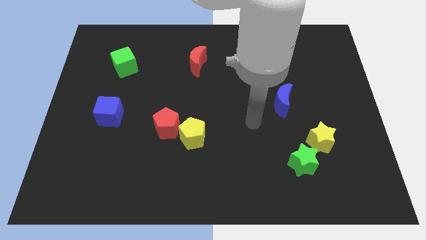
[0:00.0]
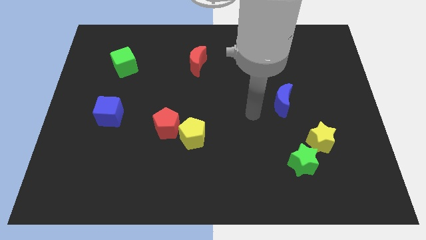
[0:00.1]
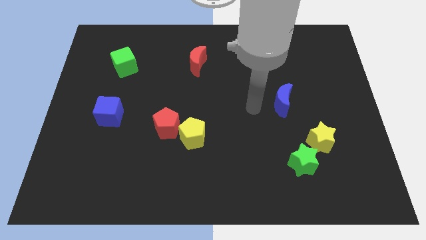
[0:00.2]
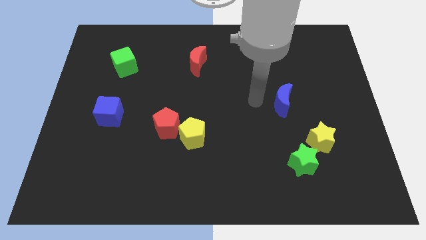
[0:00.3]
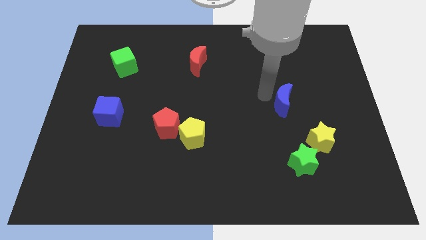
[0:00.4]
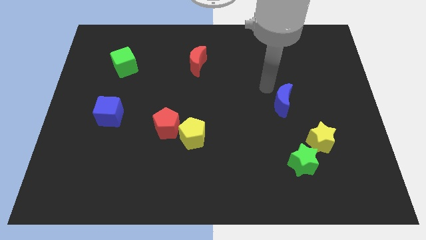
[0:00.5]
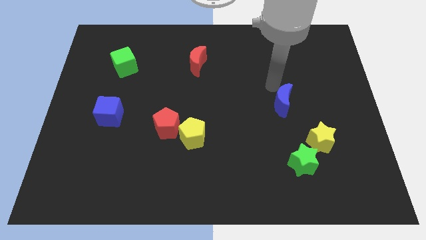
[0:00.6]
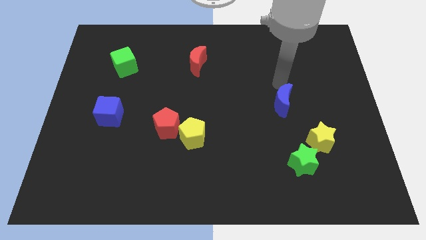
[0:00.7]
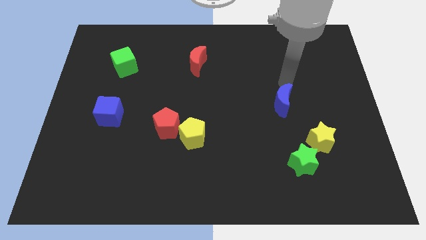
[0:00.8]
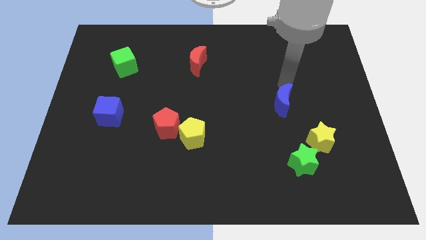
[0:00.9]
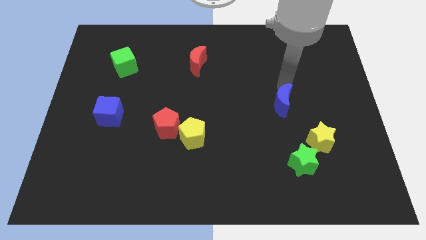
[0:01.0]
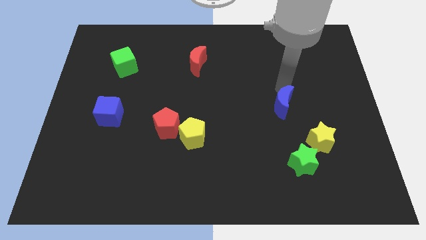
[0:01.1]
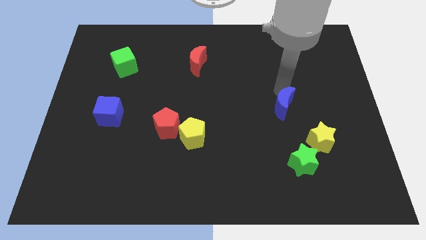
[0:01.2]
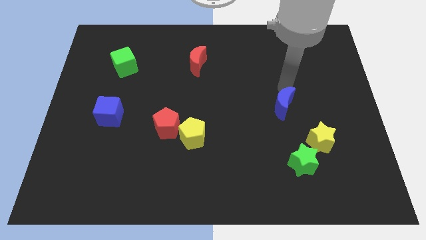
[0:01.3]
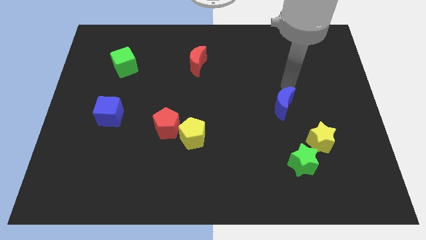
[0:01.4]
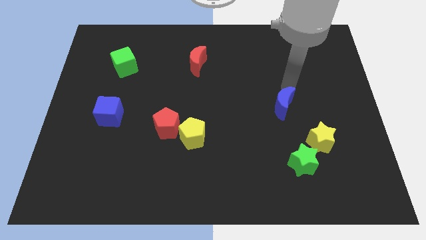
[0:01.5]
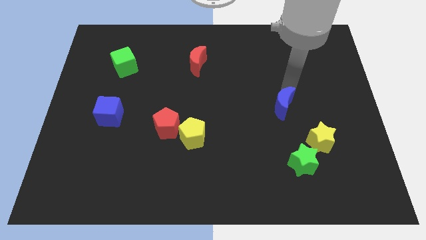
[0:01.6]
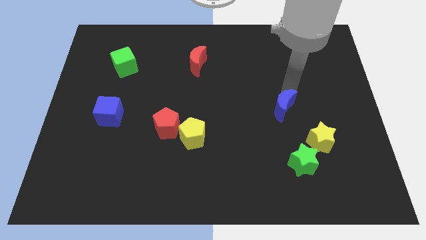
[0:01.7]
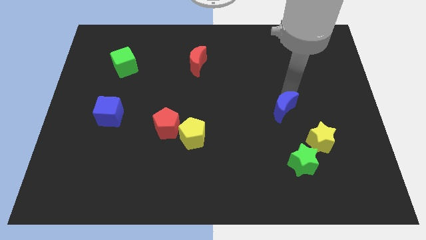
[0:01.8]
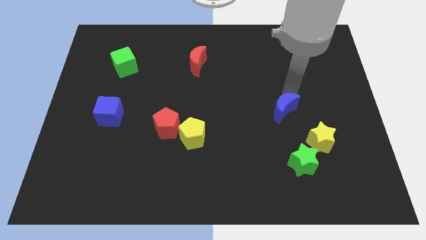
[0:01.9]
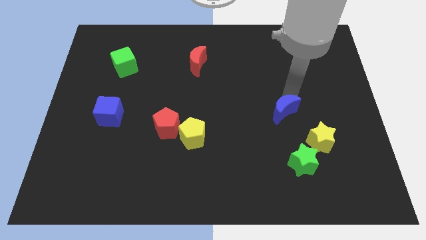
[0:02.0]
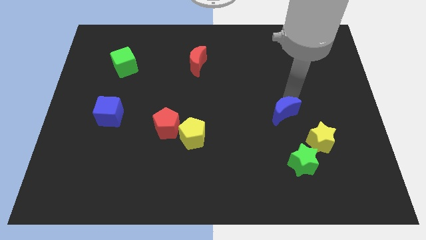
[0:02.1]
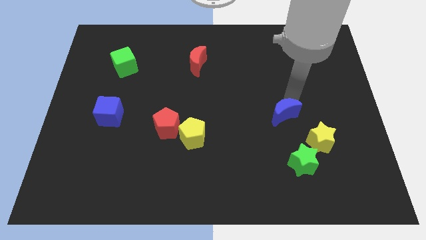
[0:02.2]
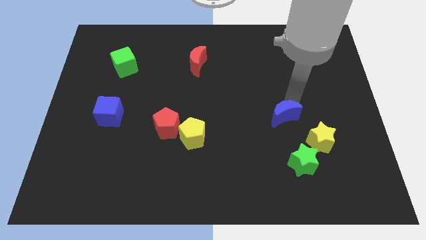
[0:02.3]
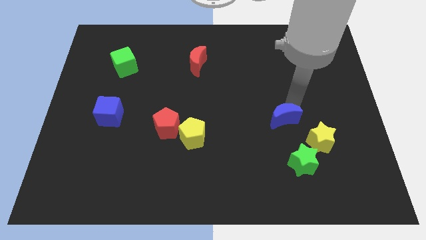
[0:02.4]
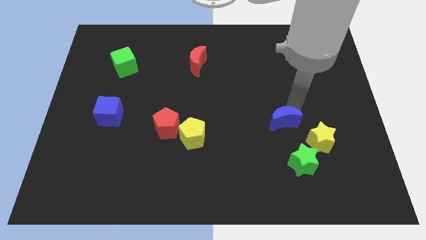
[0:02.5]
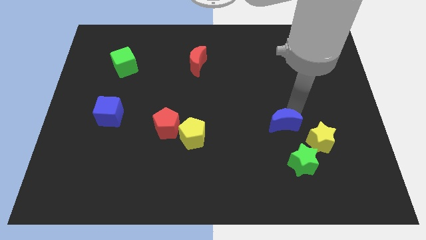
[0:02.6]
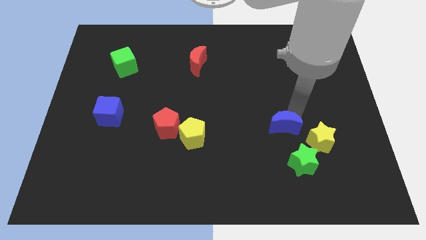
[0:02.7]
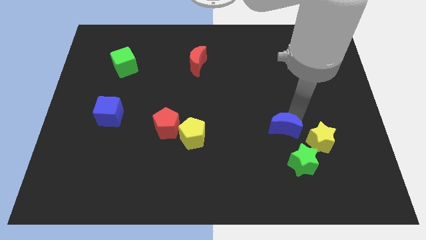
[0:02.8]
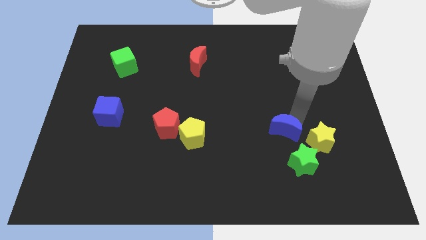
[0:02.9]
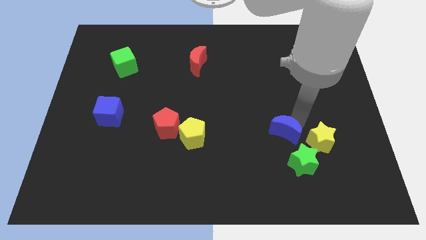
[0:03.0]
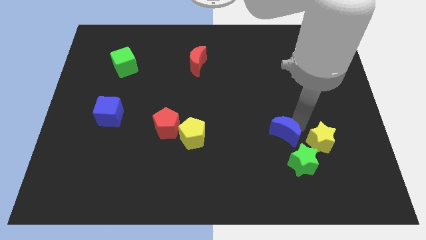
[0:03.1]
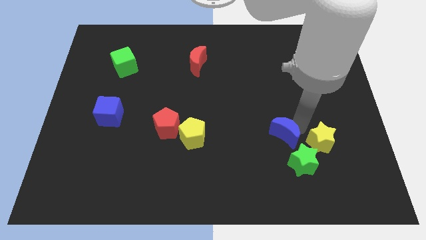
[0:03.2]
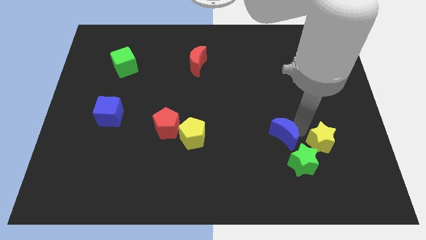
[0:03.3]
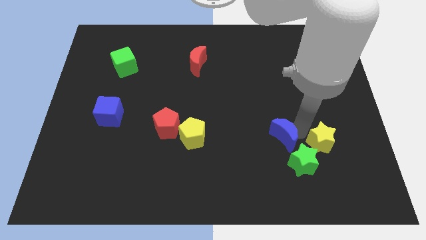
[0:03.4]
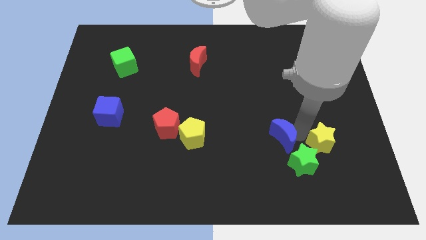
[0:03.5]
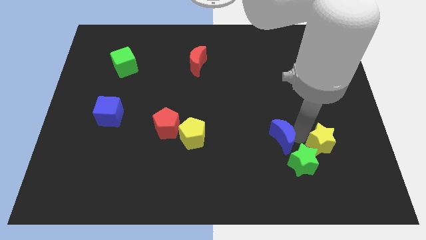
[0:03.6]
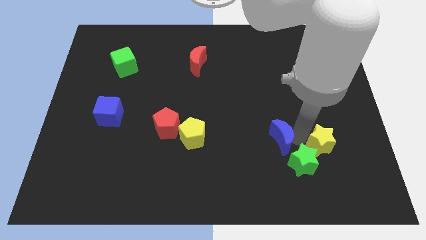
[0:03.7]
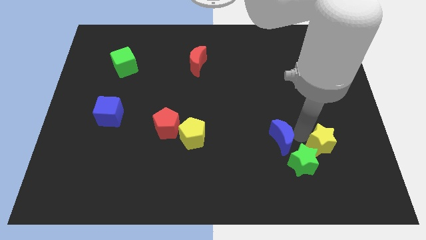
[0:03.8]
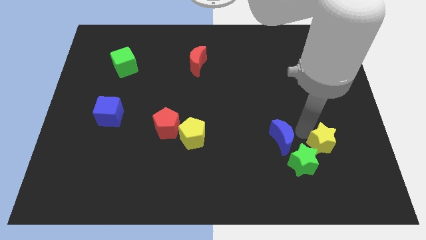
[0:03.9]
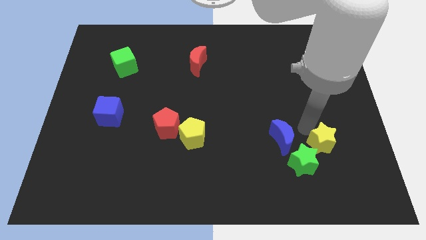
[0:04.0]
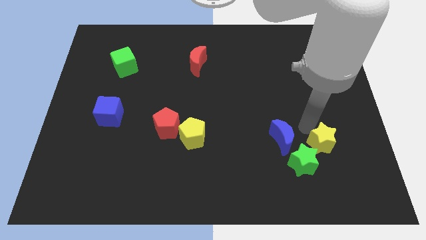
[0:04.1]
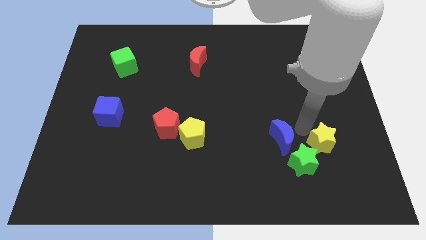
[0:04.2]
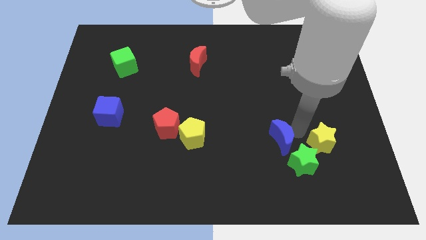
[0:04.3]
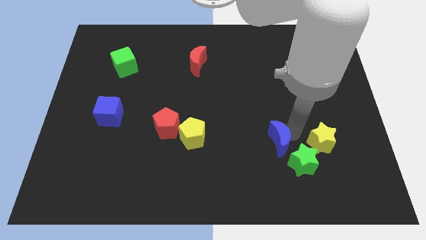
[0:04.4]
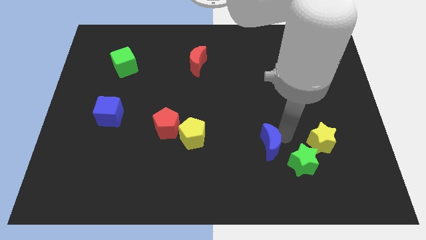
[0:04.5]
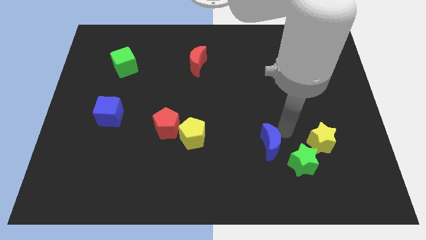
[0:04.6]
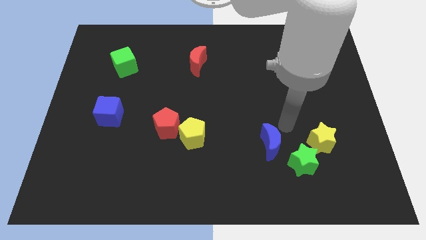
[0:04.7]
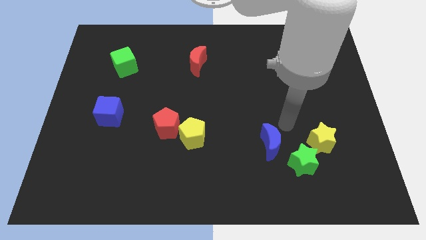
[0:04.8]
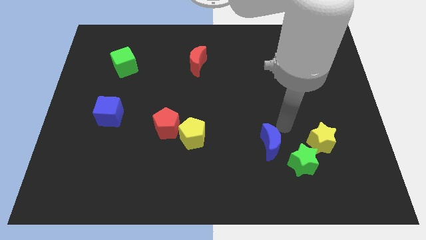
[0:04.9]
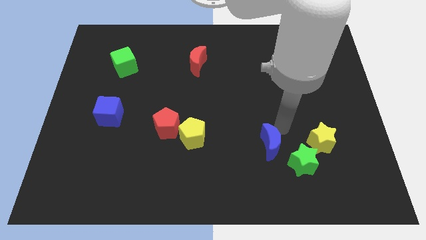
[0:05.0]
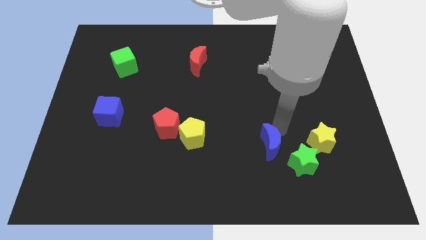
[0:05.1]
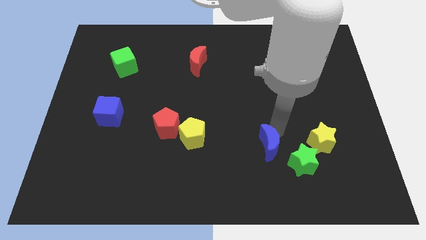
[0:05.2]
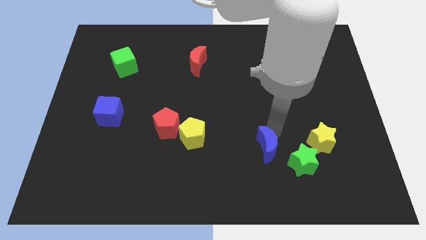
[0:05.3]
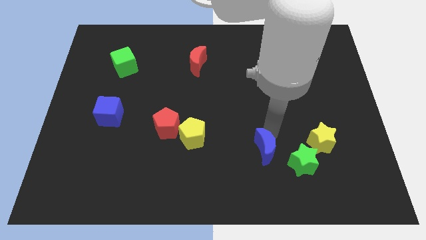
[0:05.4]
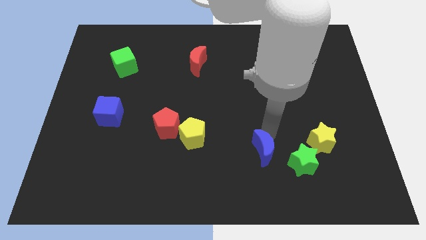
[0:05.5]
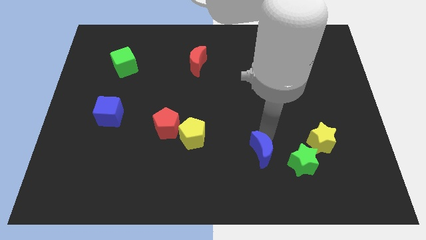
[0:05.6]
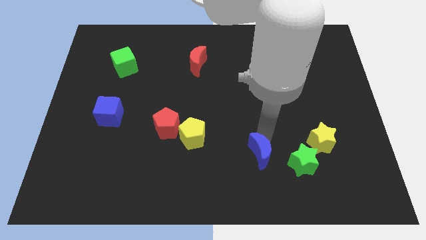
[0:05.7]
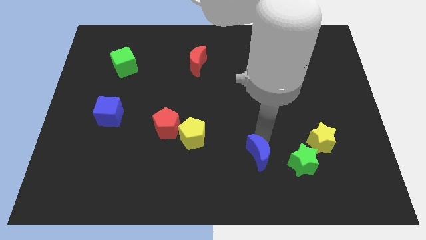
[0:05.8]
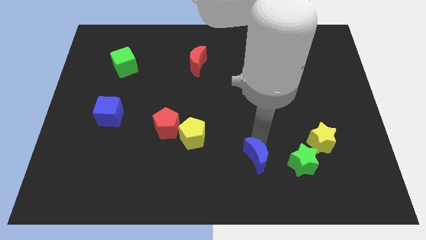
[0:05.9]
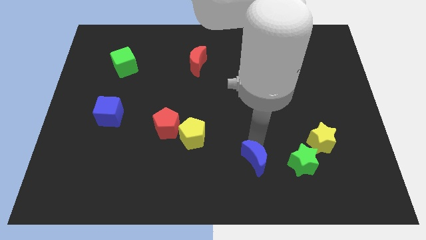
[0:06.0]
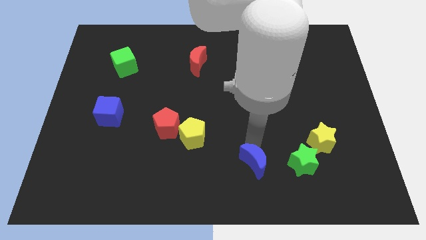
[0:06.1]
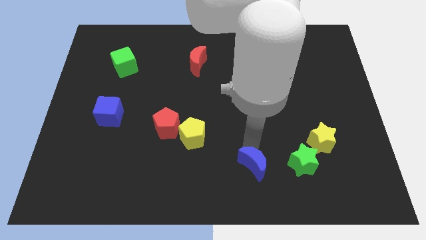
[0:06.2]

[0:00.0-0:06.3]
put the blue moon to the bottom

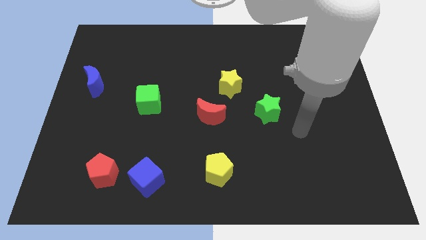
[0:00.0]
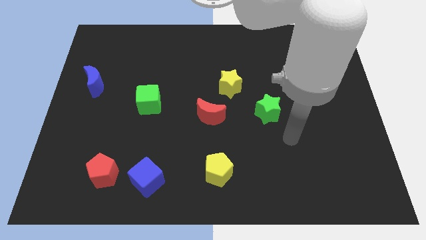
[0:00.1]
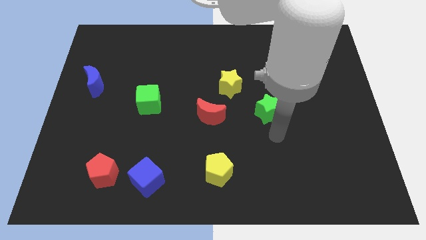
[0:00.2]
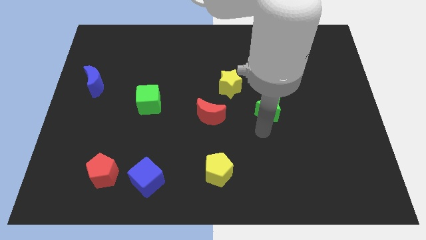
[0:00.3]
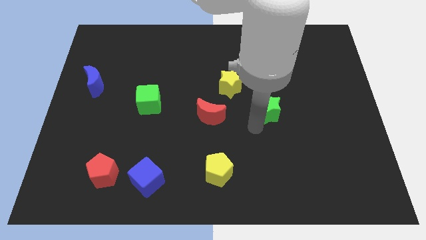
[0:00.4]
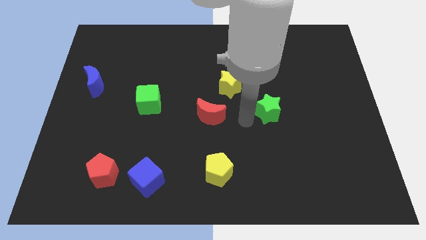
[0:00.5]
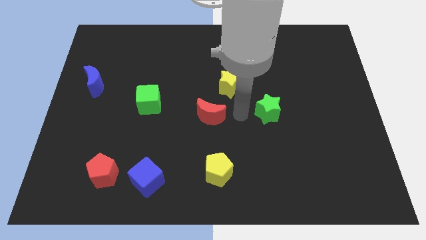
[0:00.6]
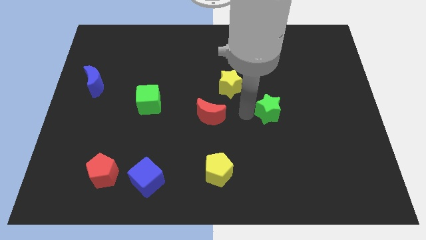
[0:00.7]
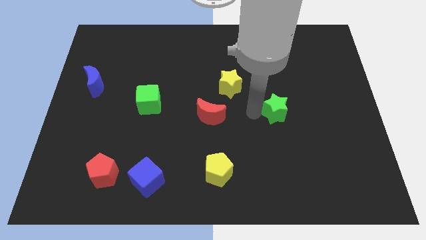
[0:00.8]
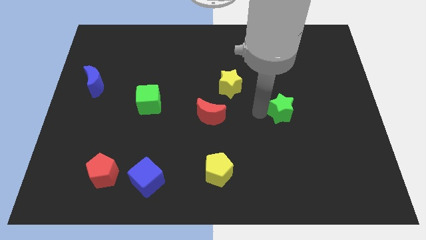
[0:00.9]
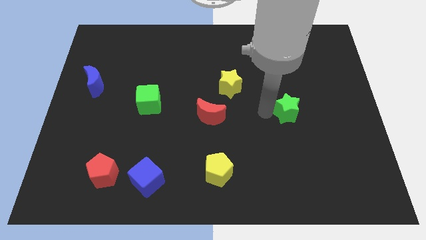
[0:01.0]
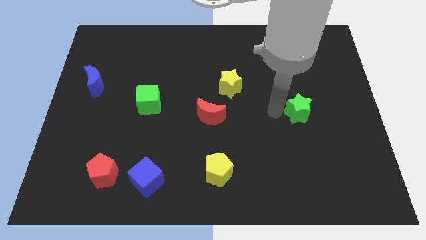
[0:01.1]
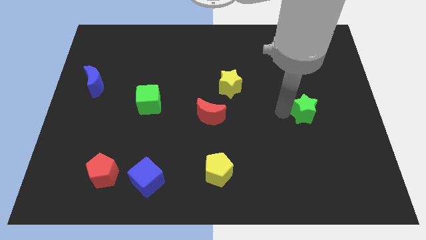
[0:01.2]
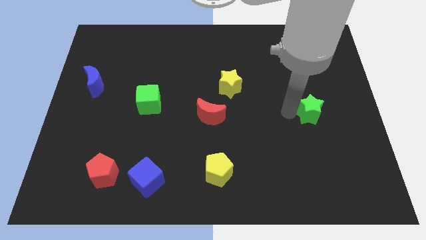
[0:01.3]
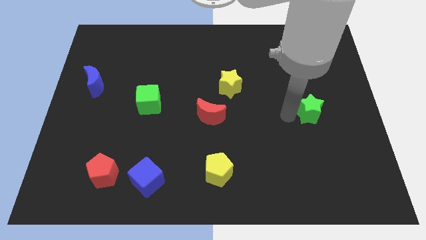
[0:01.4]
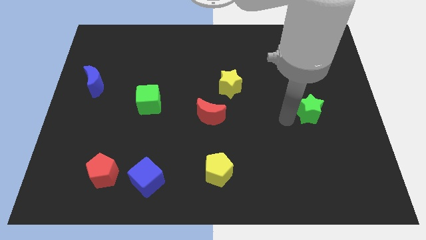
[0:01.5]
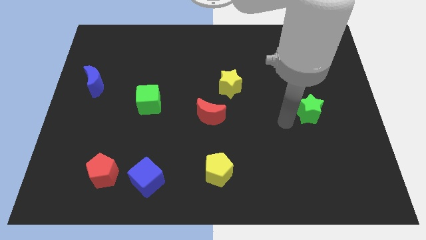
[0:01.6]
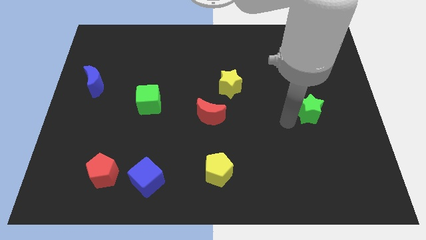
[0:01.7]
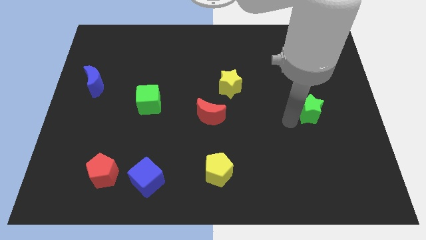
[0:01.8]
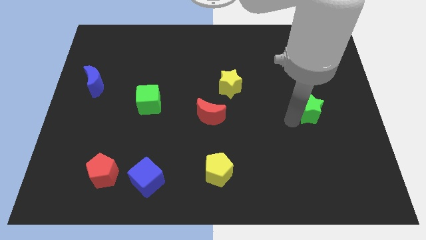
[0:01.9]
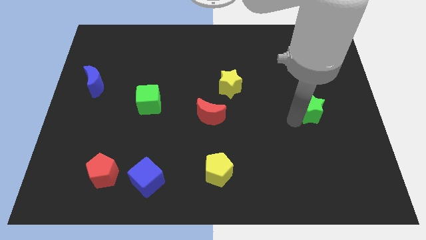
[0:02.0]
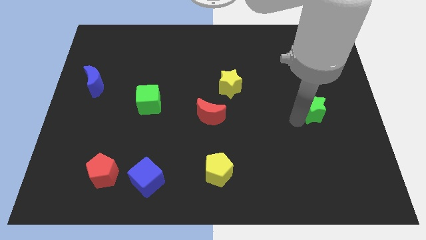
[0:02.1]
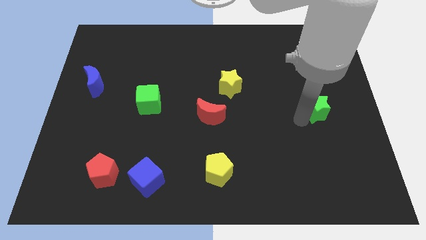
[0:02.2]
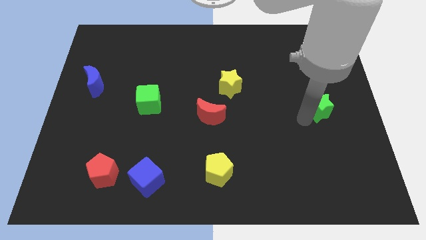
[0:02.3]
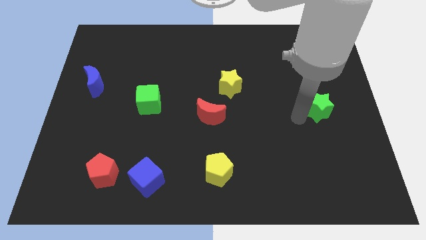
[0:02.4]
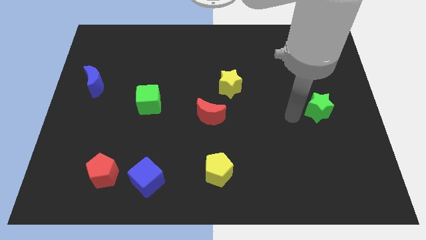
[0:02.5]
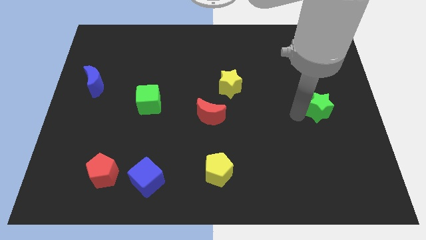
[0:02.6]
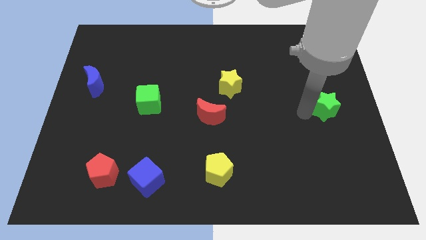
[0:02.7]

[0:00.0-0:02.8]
slide the green star to the center right

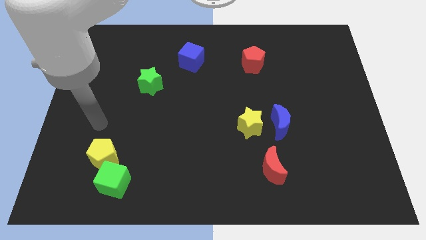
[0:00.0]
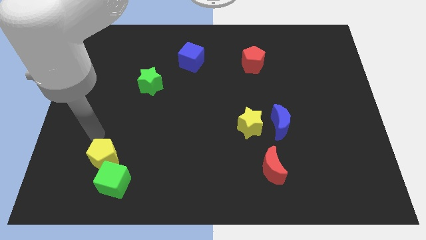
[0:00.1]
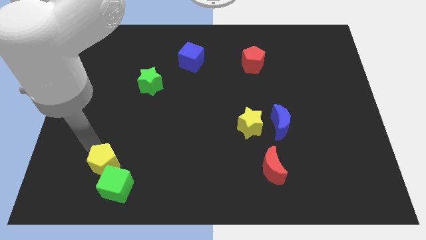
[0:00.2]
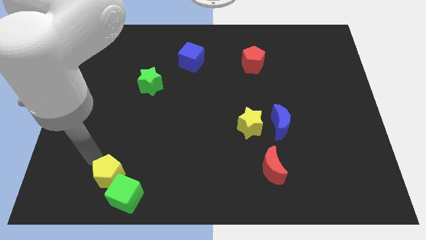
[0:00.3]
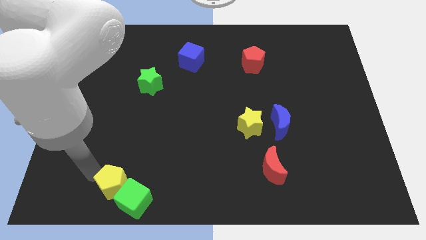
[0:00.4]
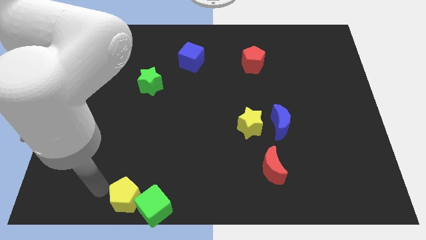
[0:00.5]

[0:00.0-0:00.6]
put the green cube to the bottom
